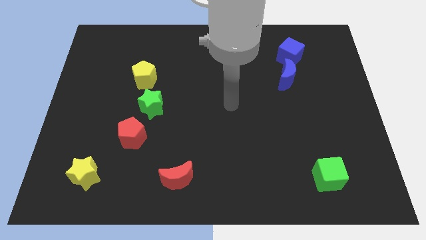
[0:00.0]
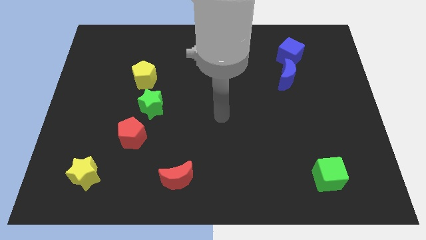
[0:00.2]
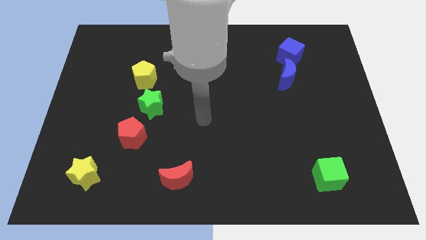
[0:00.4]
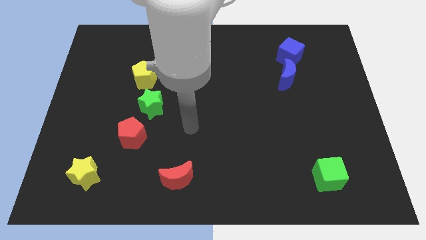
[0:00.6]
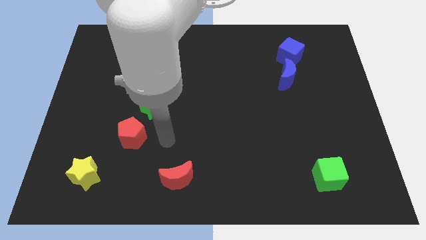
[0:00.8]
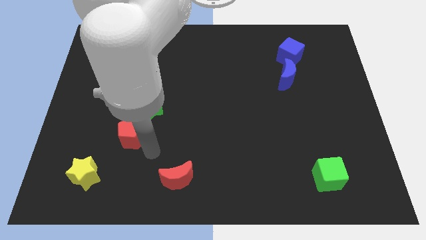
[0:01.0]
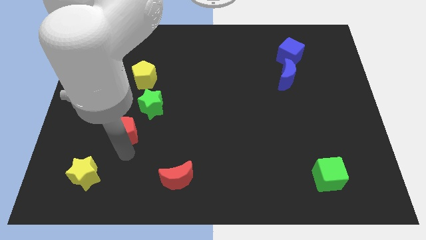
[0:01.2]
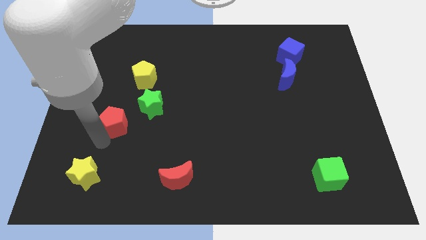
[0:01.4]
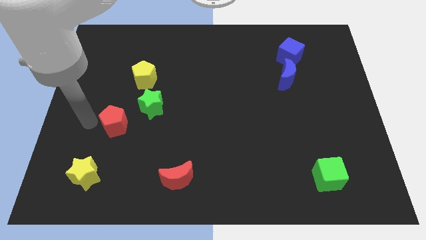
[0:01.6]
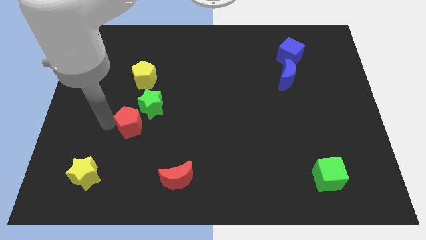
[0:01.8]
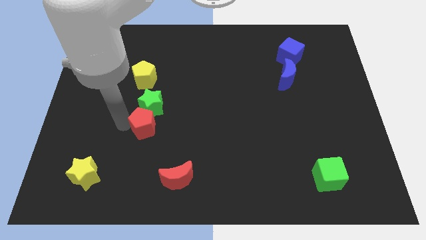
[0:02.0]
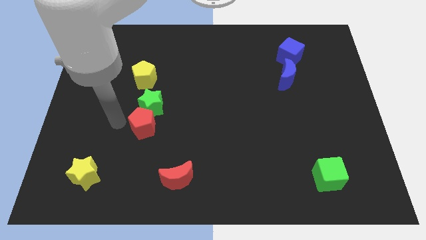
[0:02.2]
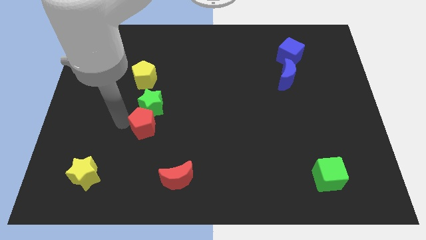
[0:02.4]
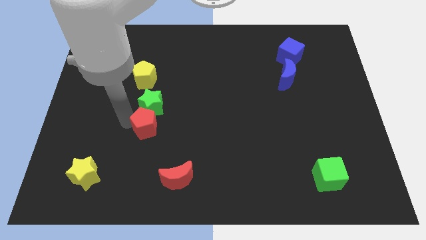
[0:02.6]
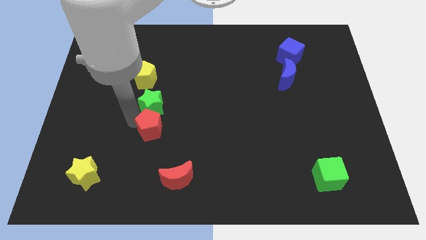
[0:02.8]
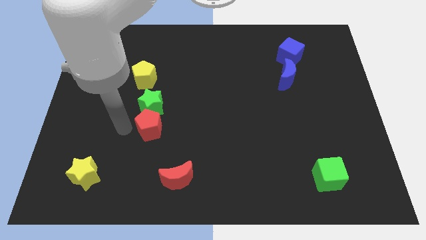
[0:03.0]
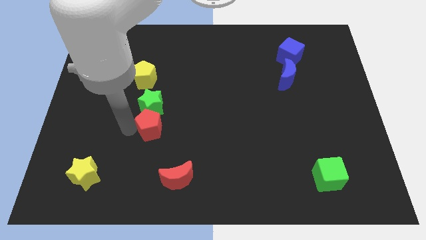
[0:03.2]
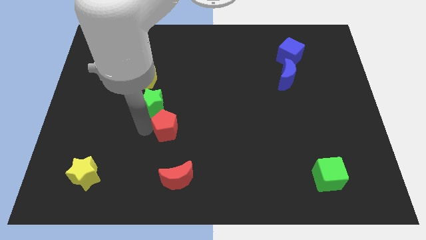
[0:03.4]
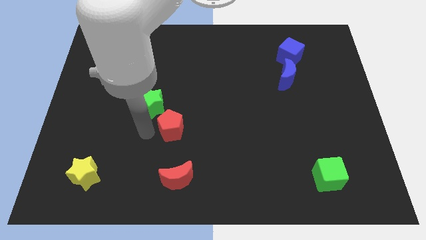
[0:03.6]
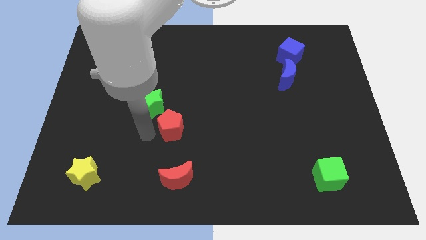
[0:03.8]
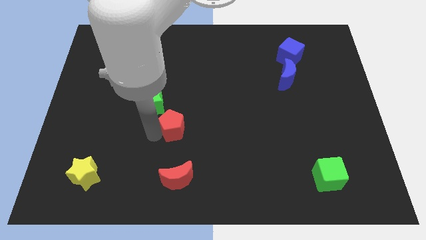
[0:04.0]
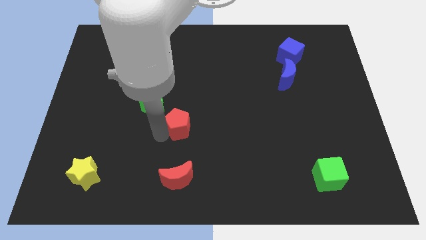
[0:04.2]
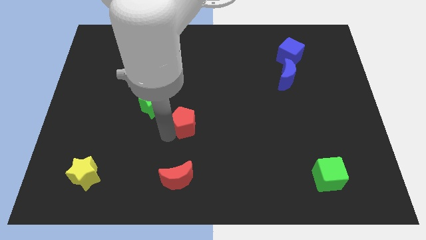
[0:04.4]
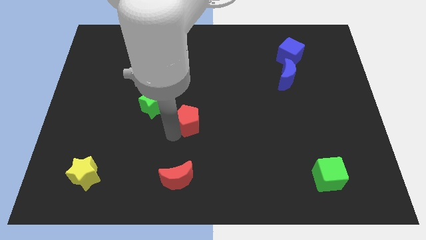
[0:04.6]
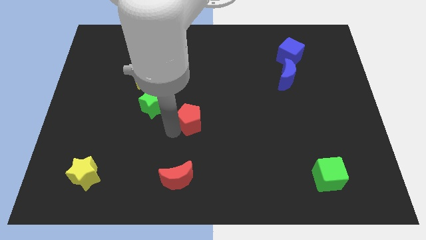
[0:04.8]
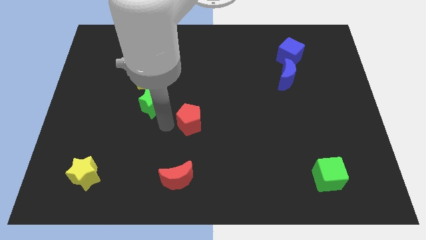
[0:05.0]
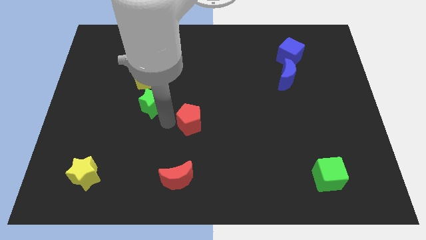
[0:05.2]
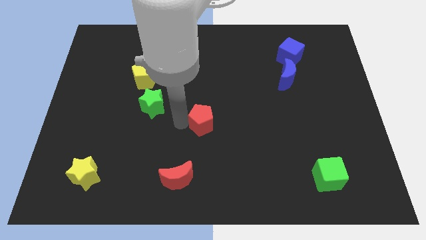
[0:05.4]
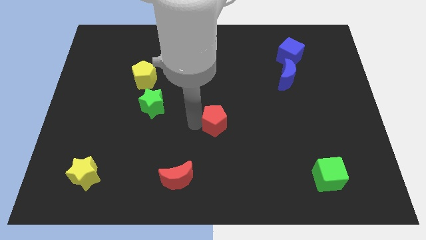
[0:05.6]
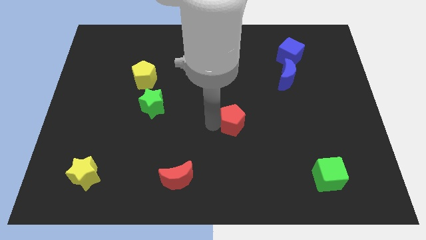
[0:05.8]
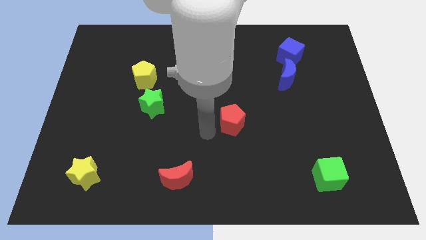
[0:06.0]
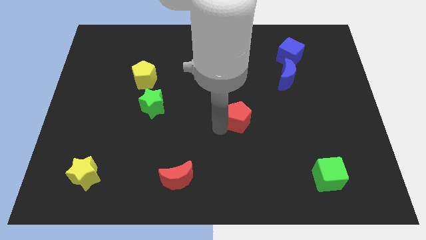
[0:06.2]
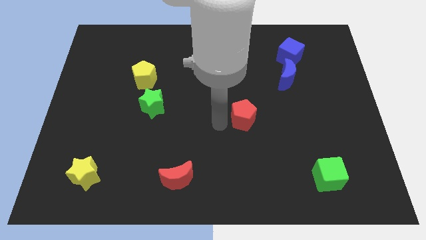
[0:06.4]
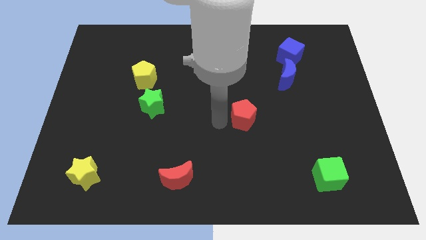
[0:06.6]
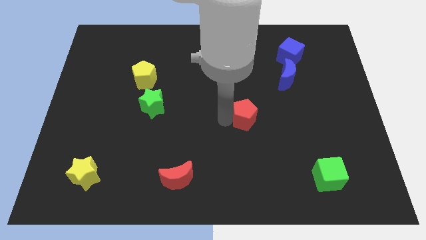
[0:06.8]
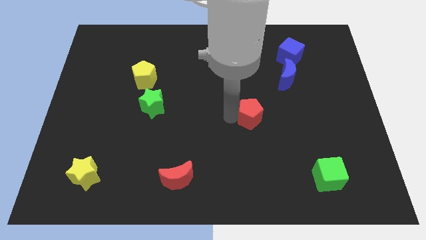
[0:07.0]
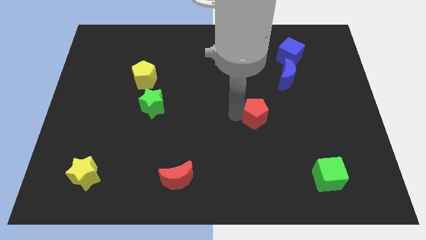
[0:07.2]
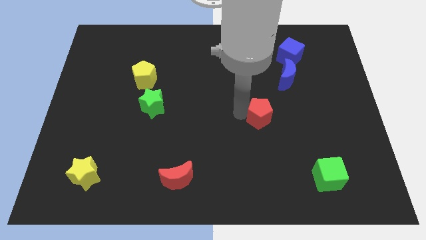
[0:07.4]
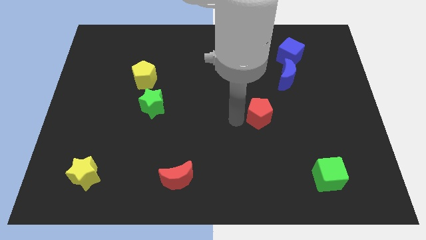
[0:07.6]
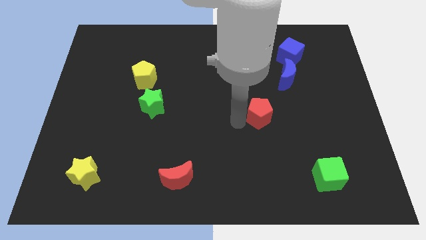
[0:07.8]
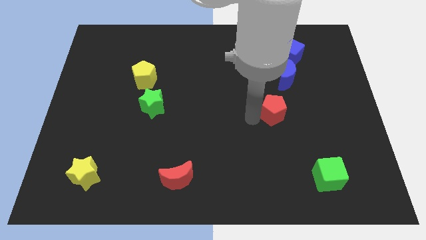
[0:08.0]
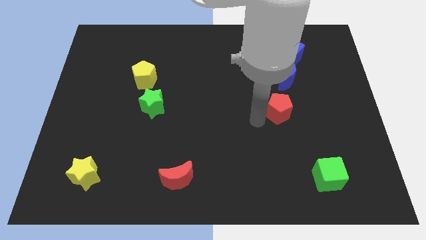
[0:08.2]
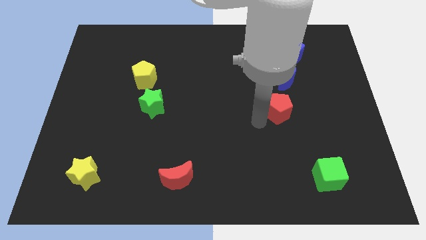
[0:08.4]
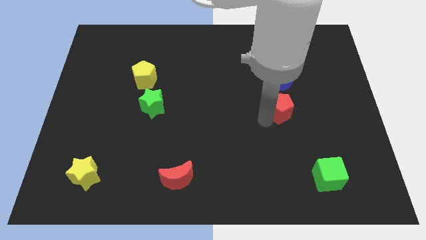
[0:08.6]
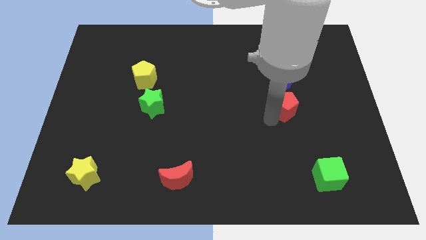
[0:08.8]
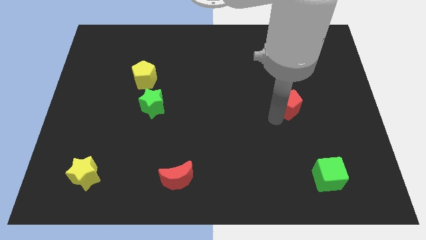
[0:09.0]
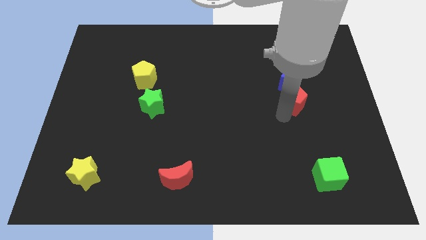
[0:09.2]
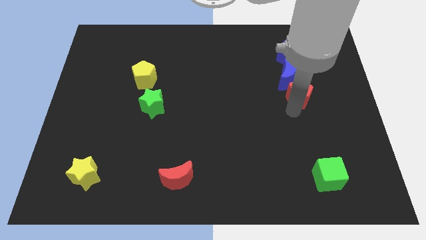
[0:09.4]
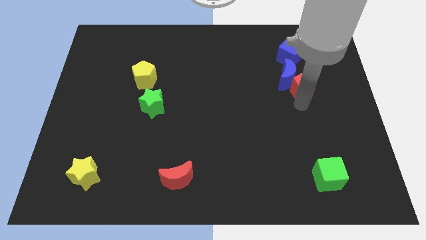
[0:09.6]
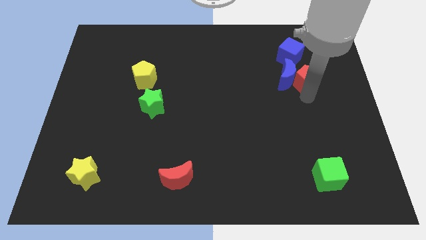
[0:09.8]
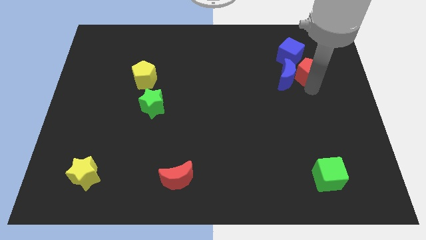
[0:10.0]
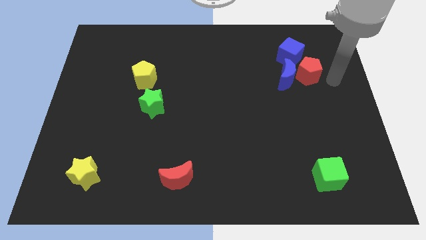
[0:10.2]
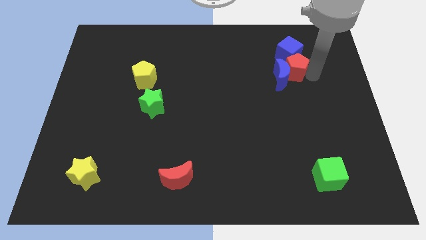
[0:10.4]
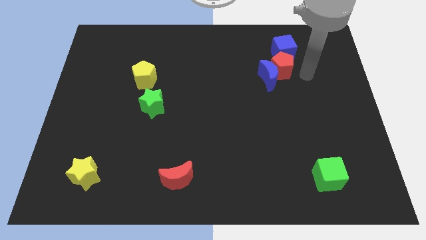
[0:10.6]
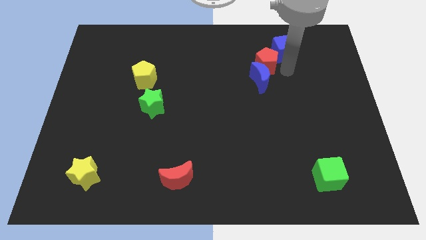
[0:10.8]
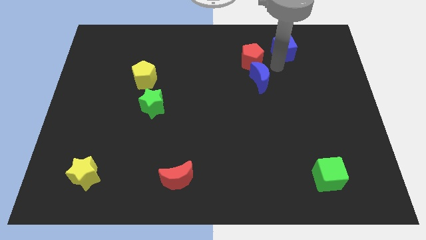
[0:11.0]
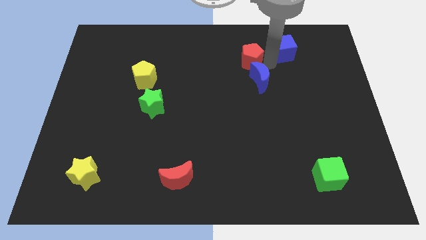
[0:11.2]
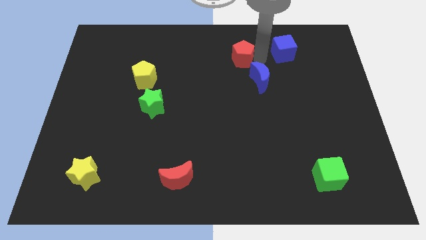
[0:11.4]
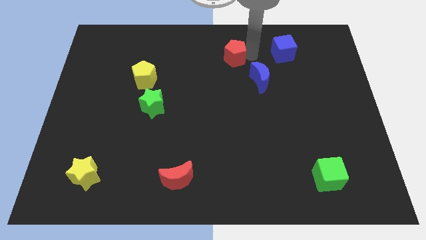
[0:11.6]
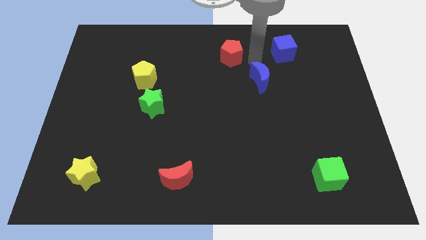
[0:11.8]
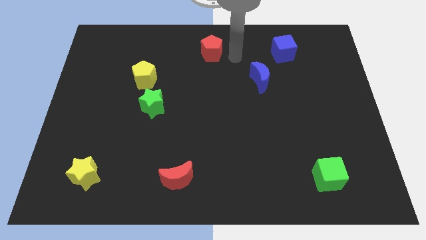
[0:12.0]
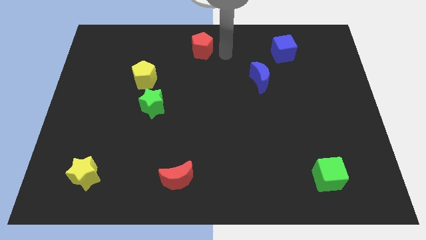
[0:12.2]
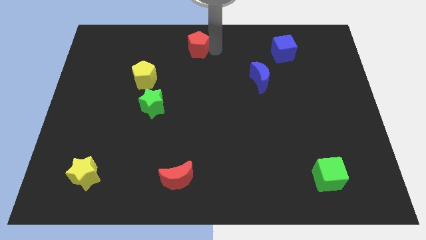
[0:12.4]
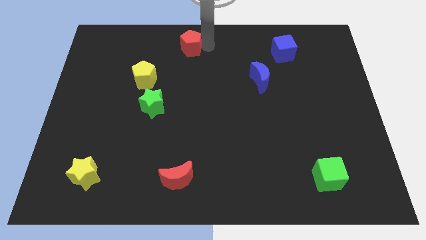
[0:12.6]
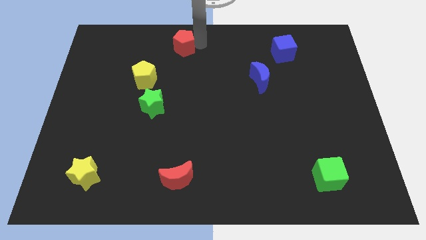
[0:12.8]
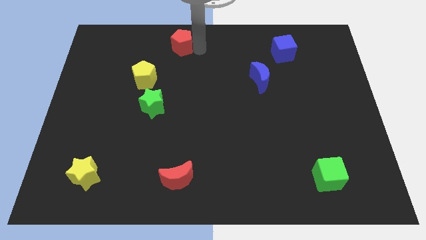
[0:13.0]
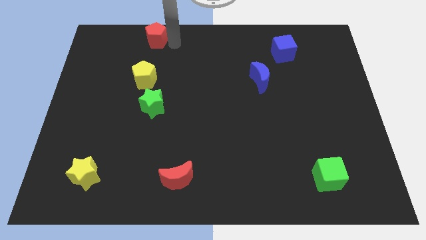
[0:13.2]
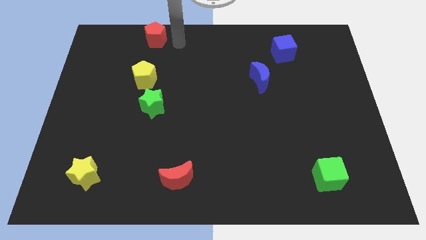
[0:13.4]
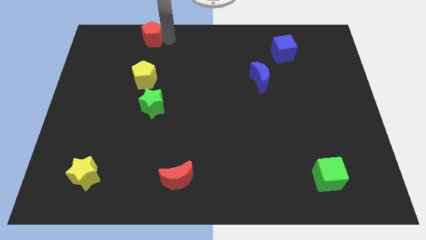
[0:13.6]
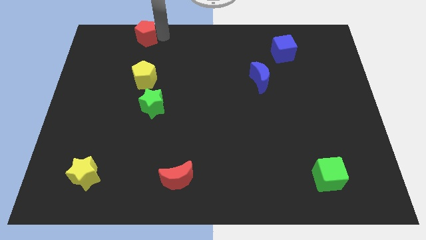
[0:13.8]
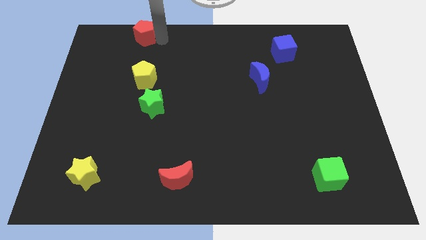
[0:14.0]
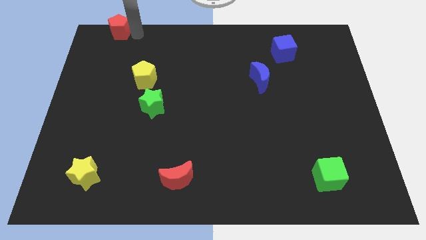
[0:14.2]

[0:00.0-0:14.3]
put the red pentagon to the top left corner
